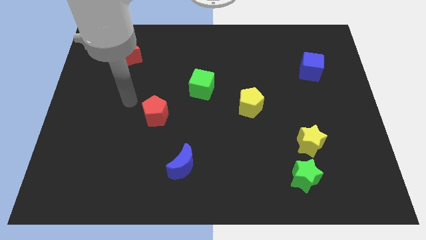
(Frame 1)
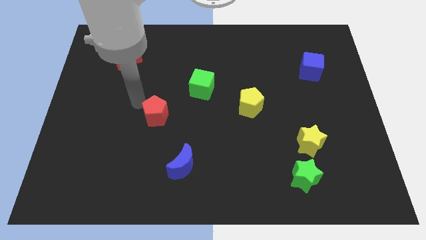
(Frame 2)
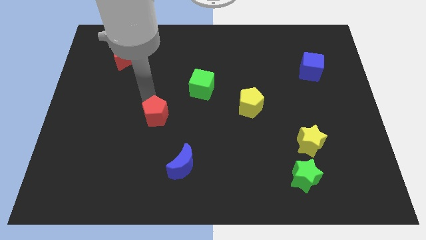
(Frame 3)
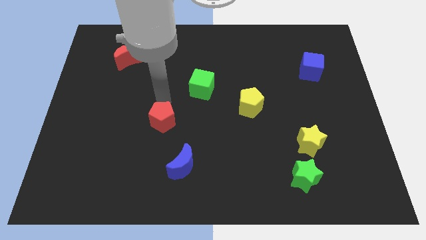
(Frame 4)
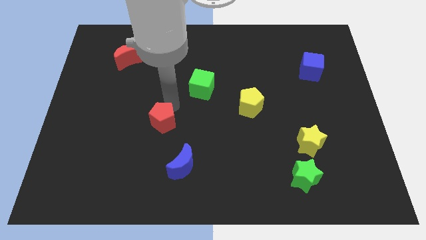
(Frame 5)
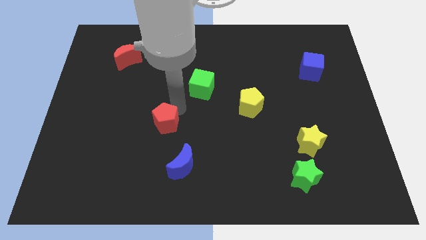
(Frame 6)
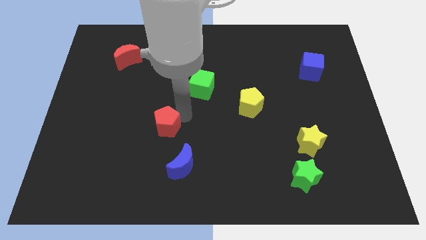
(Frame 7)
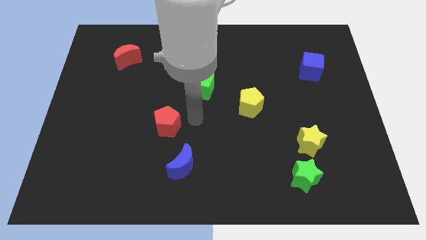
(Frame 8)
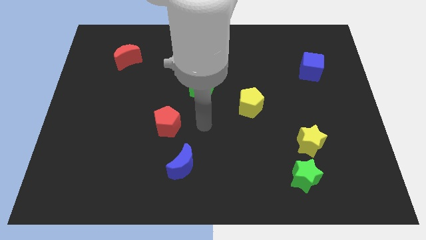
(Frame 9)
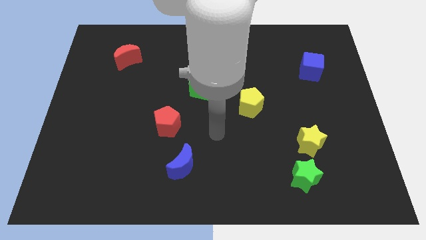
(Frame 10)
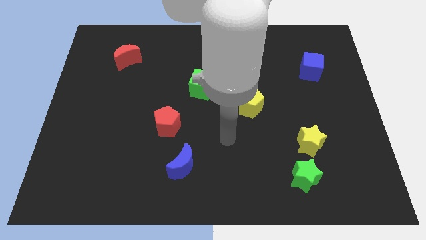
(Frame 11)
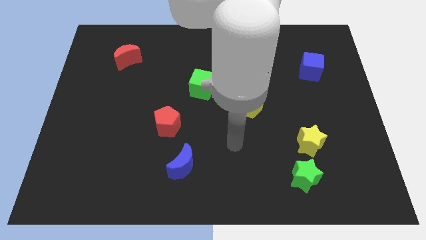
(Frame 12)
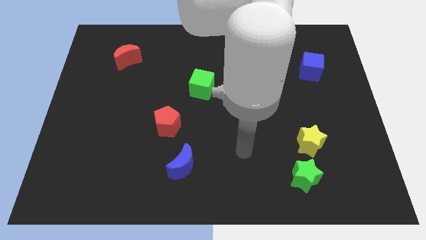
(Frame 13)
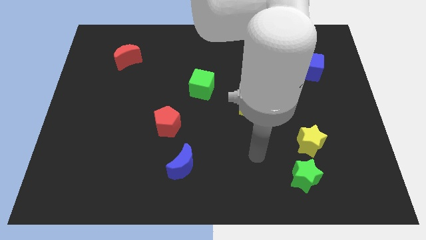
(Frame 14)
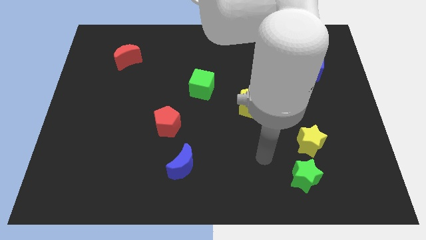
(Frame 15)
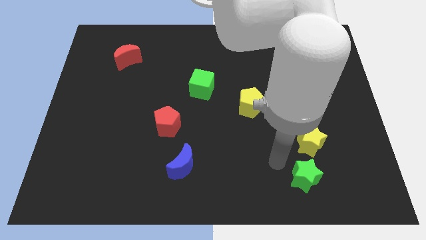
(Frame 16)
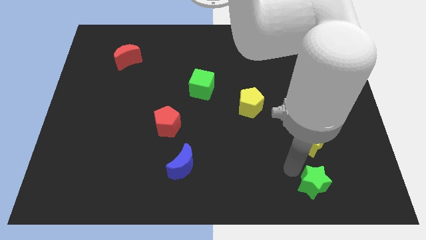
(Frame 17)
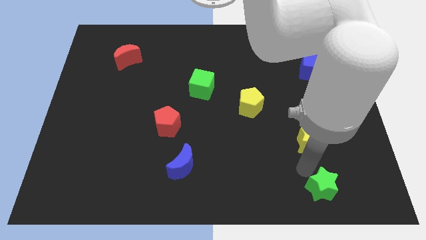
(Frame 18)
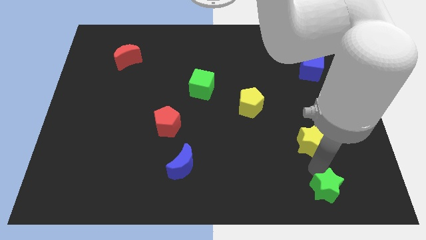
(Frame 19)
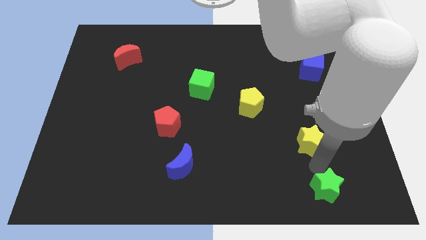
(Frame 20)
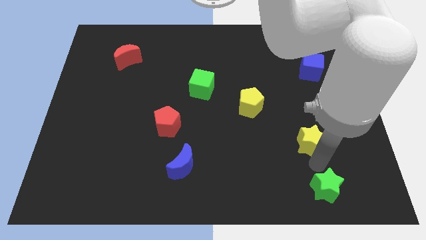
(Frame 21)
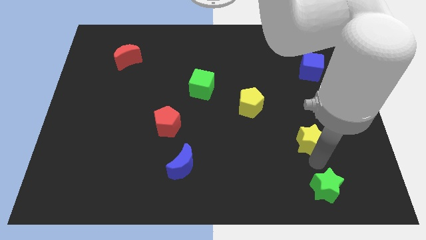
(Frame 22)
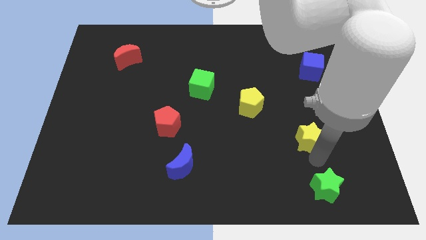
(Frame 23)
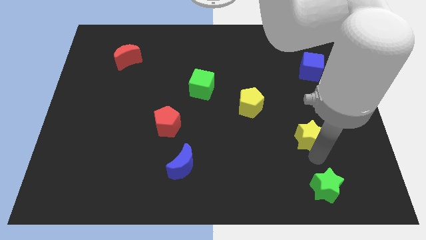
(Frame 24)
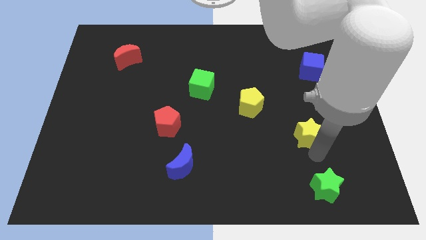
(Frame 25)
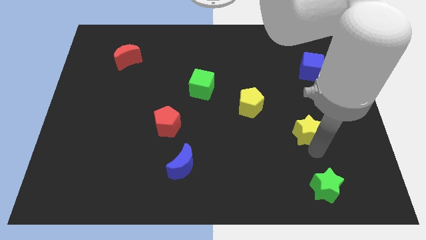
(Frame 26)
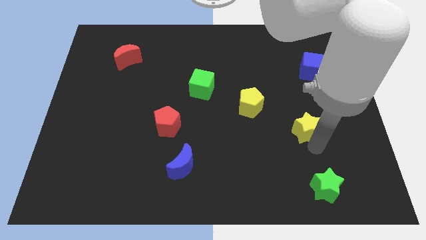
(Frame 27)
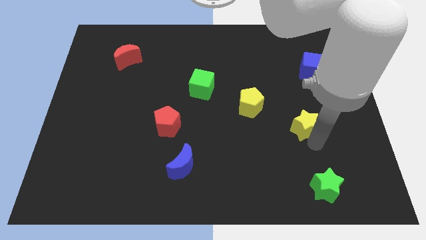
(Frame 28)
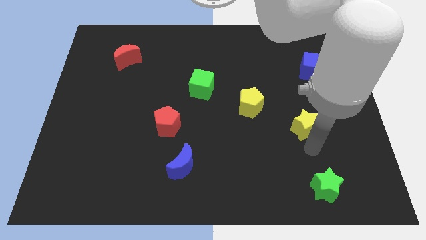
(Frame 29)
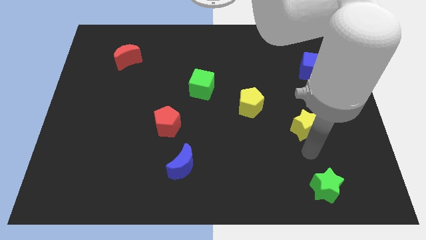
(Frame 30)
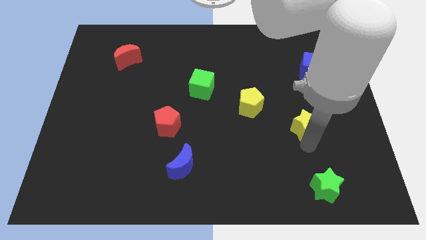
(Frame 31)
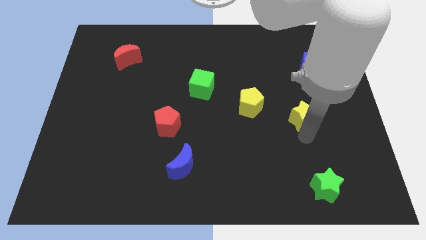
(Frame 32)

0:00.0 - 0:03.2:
push the yellow star a little upwards

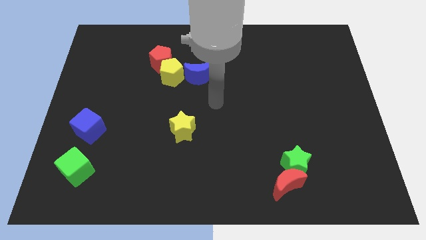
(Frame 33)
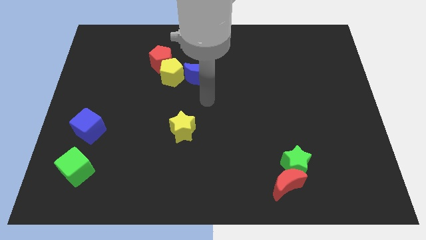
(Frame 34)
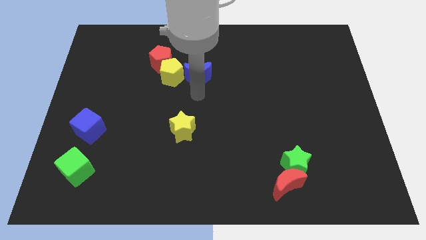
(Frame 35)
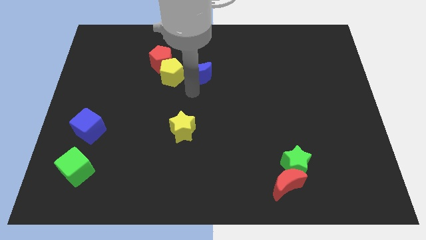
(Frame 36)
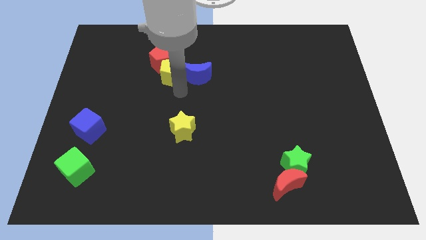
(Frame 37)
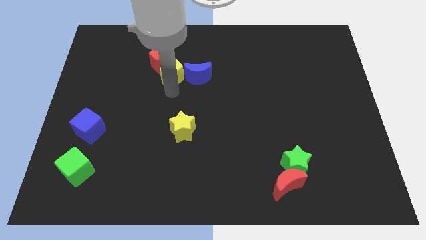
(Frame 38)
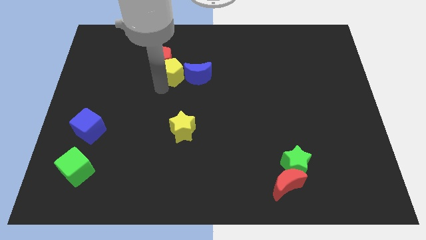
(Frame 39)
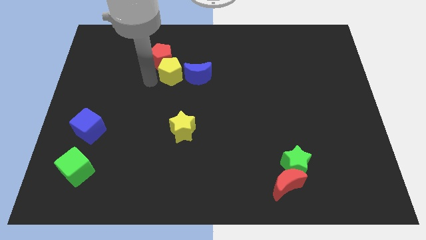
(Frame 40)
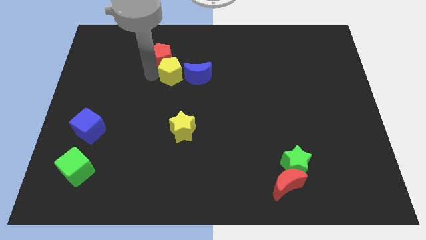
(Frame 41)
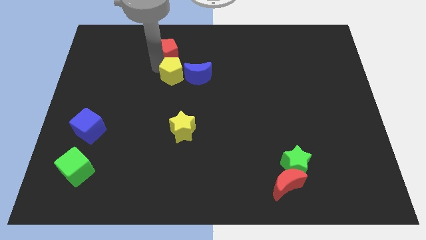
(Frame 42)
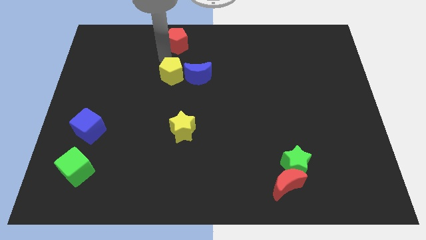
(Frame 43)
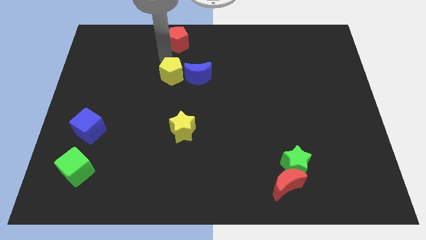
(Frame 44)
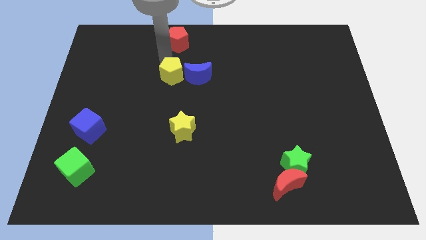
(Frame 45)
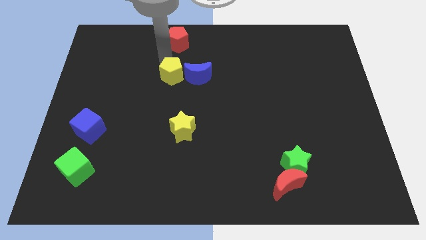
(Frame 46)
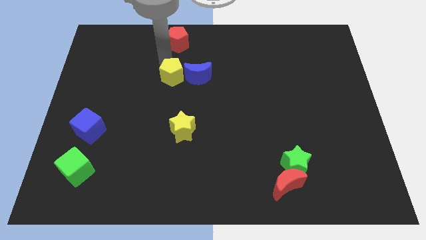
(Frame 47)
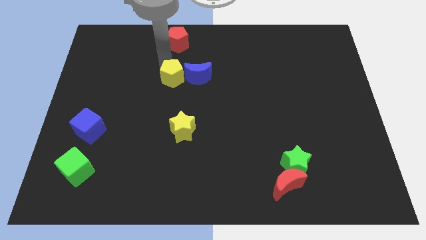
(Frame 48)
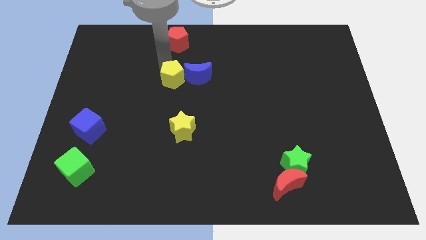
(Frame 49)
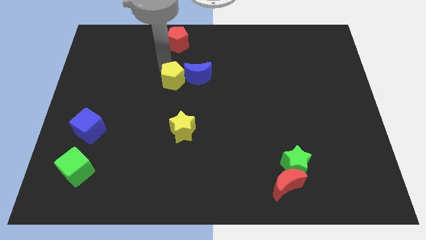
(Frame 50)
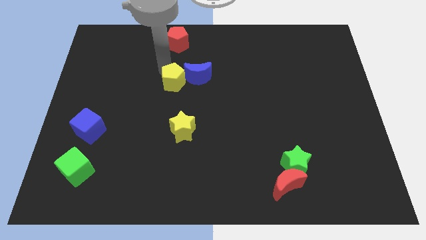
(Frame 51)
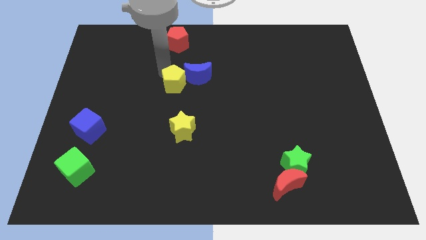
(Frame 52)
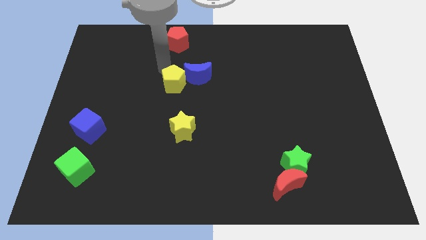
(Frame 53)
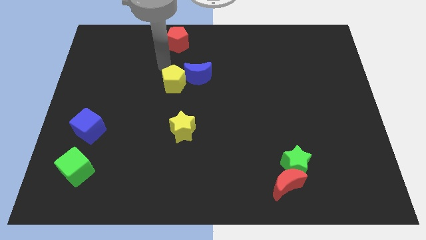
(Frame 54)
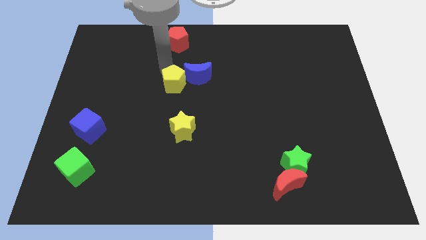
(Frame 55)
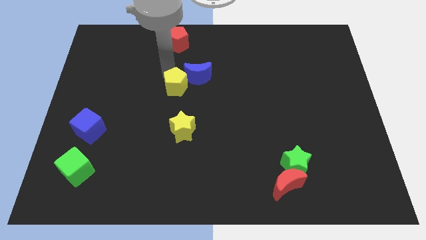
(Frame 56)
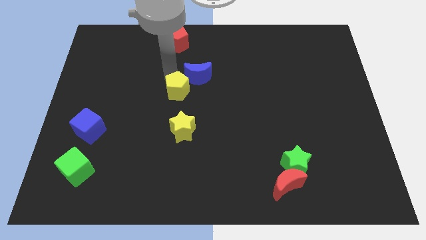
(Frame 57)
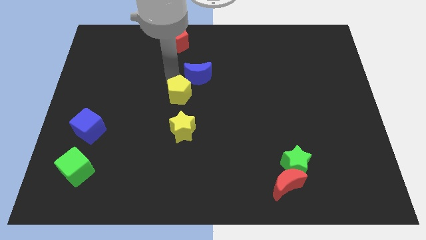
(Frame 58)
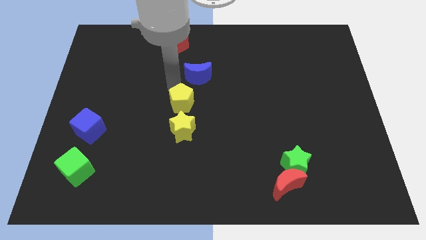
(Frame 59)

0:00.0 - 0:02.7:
slide the yellow pentagon down and then right somewhat

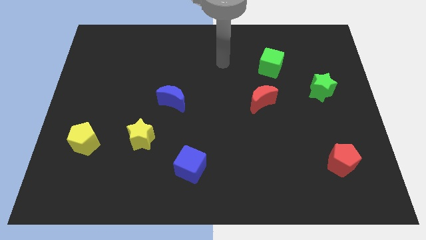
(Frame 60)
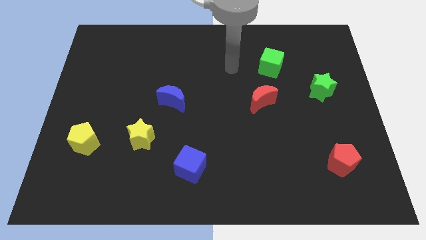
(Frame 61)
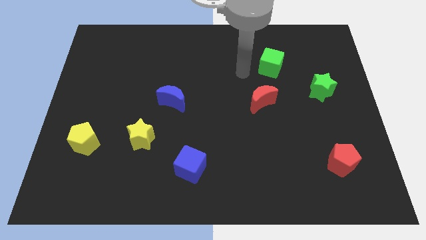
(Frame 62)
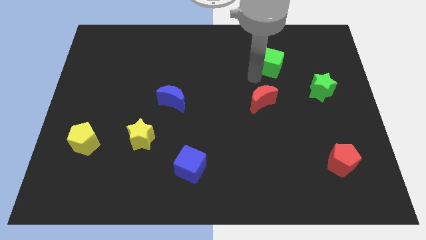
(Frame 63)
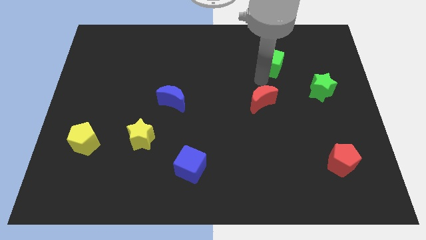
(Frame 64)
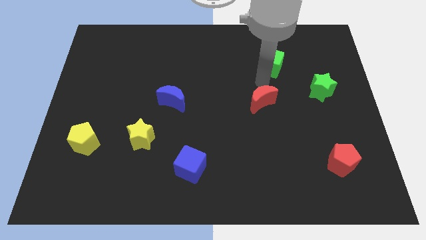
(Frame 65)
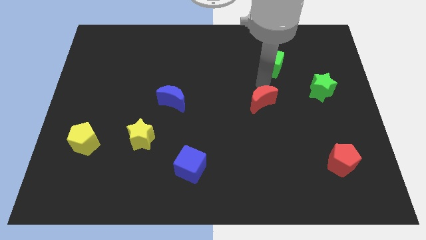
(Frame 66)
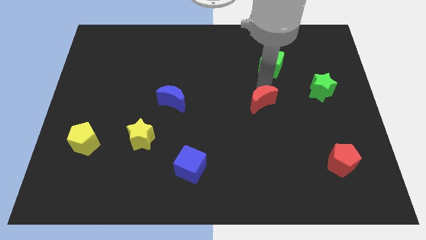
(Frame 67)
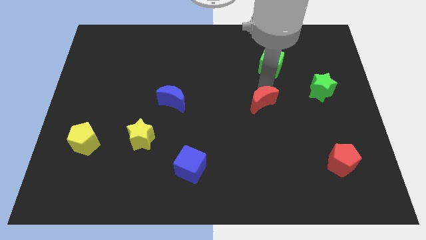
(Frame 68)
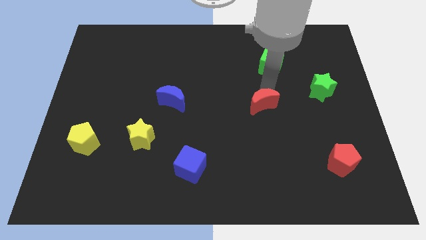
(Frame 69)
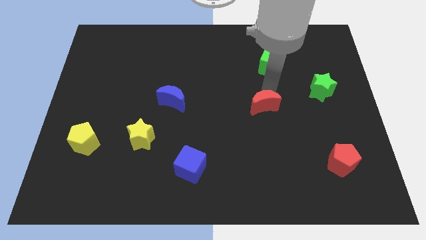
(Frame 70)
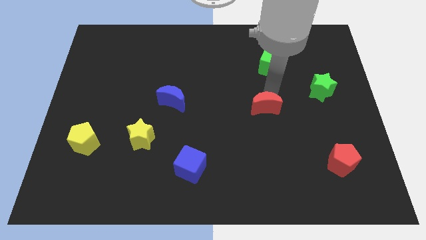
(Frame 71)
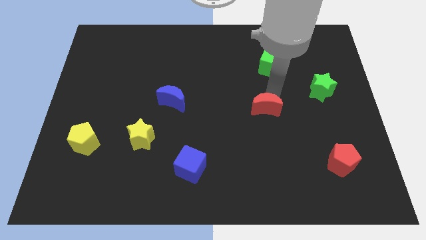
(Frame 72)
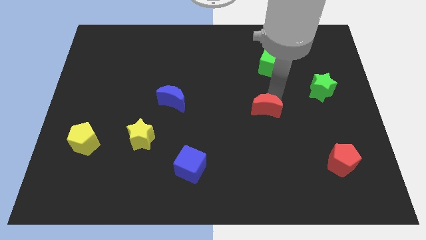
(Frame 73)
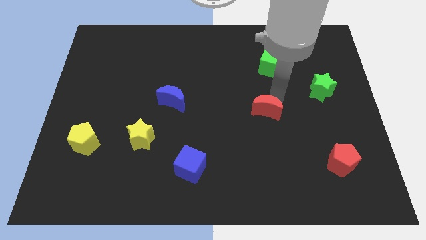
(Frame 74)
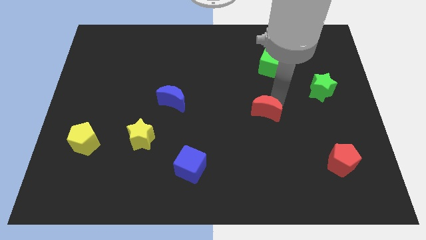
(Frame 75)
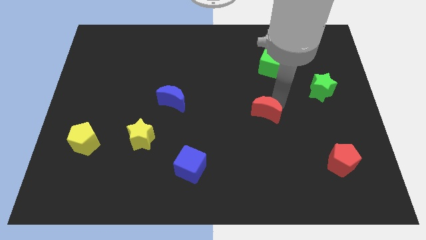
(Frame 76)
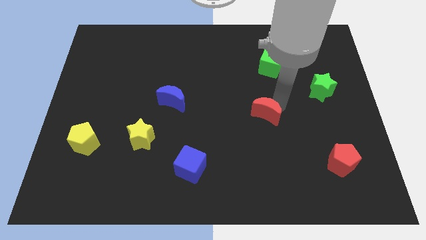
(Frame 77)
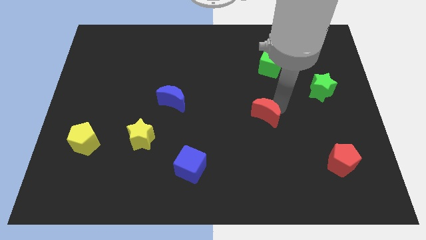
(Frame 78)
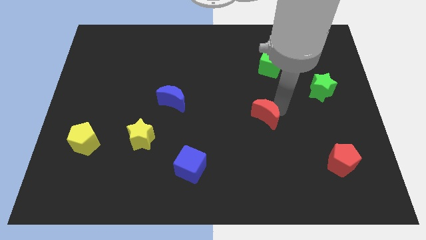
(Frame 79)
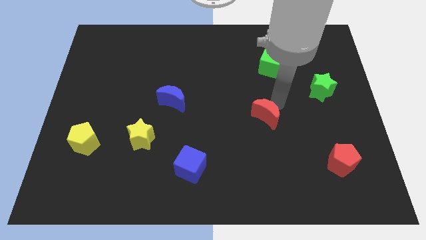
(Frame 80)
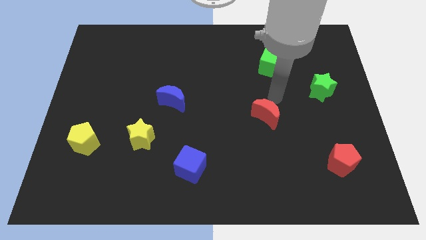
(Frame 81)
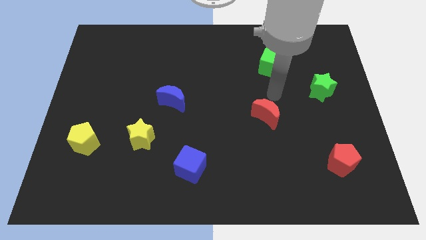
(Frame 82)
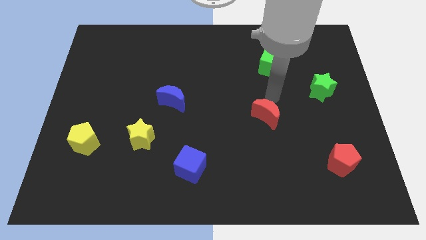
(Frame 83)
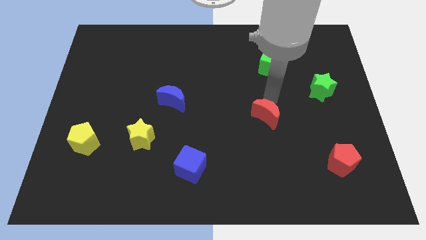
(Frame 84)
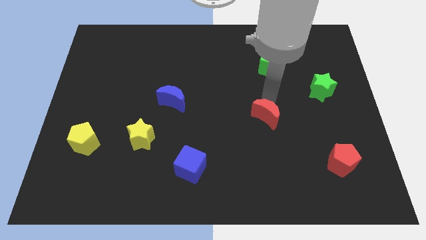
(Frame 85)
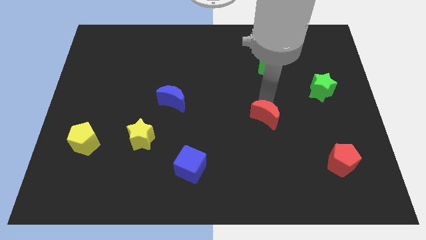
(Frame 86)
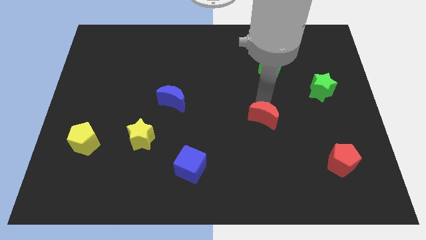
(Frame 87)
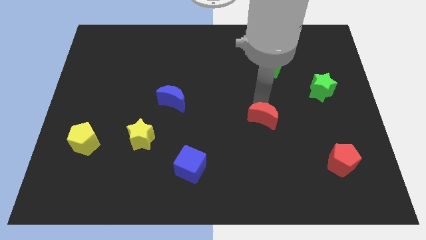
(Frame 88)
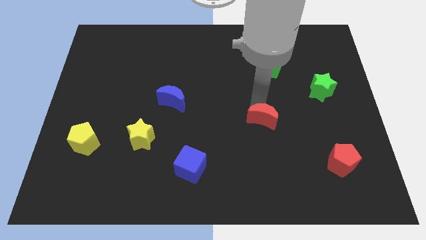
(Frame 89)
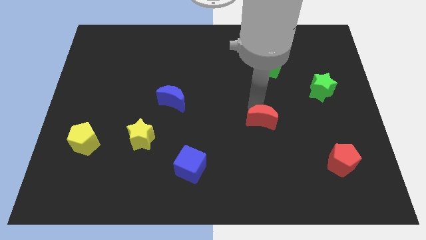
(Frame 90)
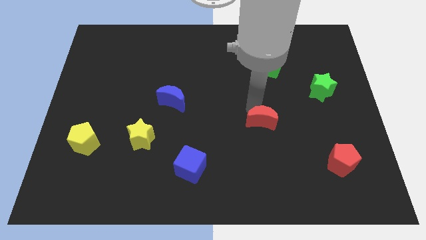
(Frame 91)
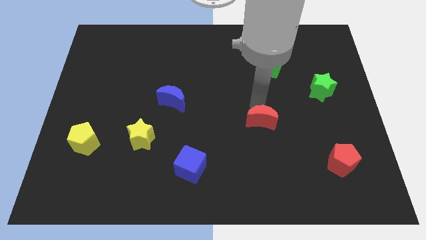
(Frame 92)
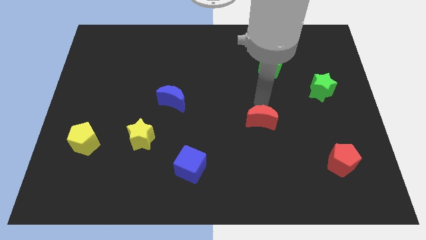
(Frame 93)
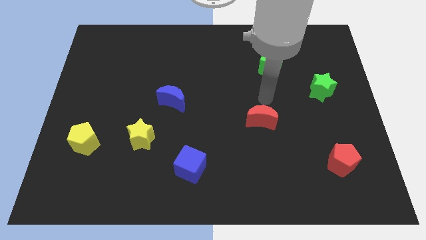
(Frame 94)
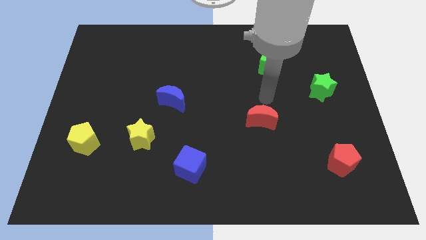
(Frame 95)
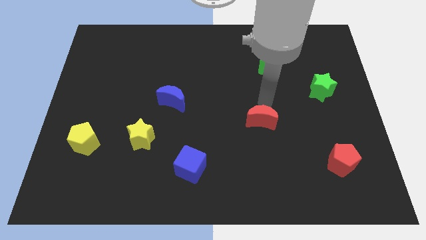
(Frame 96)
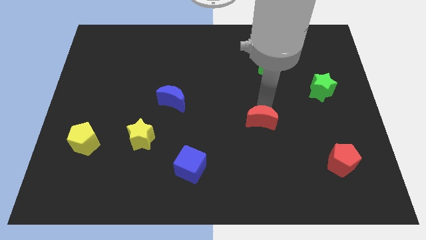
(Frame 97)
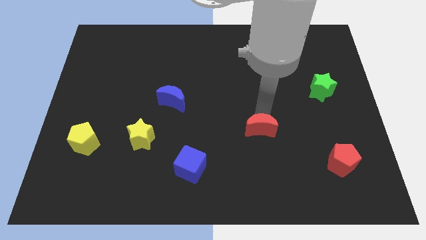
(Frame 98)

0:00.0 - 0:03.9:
slide the red moon downwards a bit
